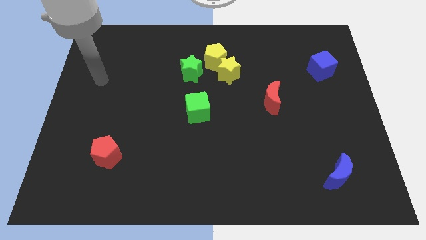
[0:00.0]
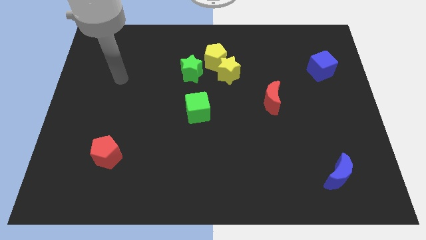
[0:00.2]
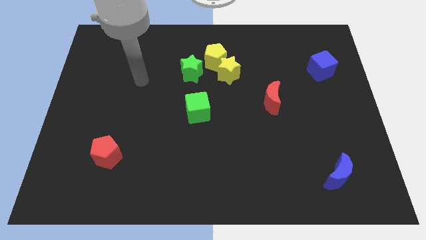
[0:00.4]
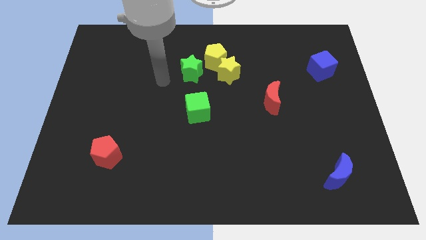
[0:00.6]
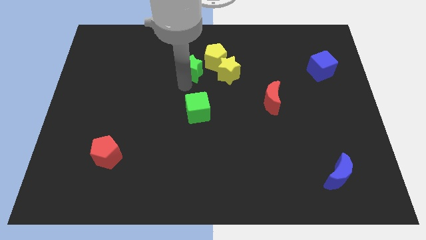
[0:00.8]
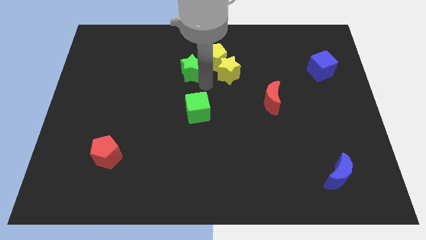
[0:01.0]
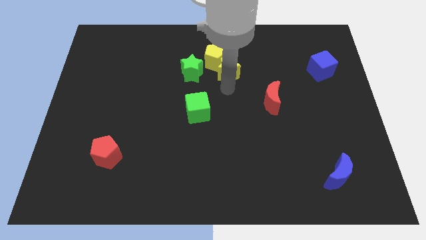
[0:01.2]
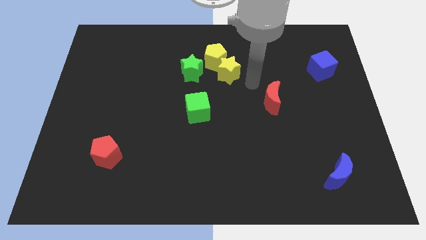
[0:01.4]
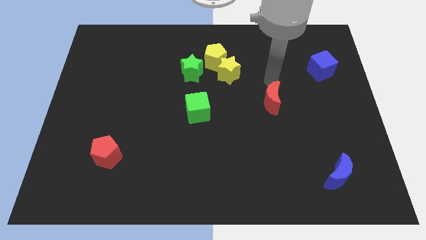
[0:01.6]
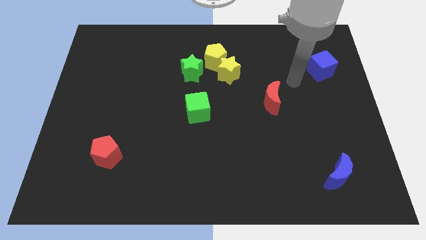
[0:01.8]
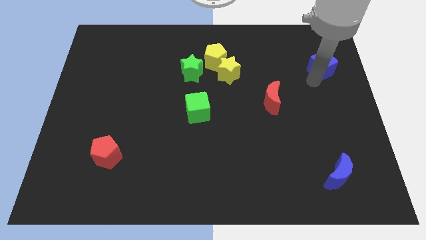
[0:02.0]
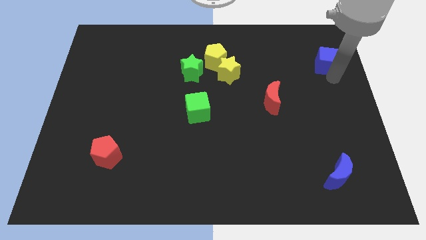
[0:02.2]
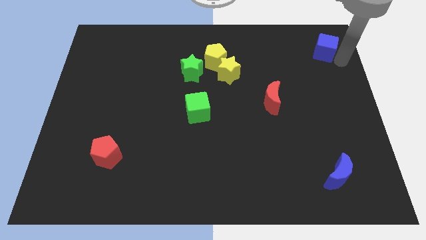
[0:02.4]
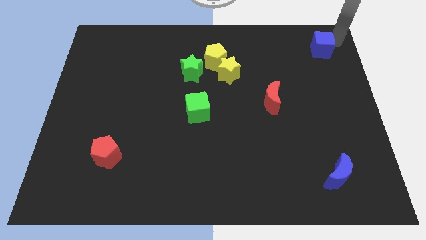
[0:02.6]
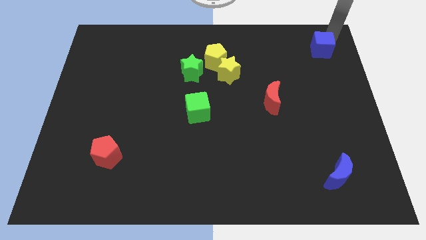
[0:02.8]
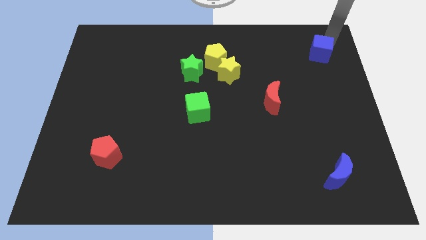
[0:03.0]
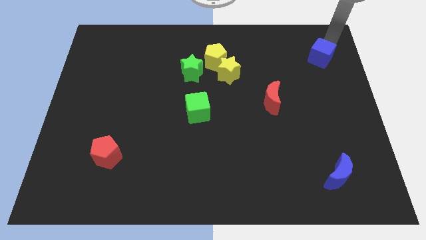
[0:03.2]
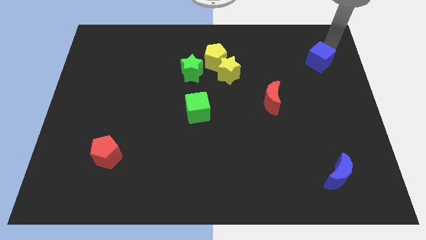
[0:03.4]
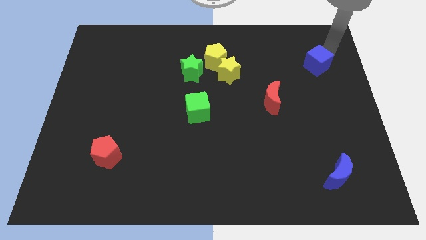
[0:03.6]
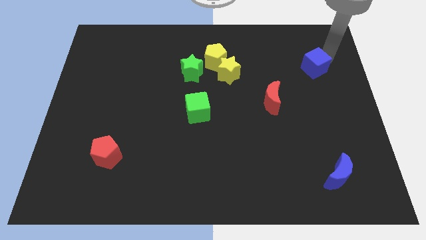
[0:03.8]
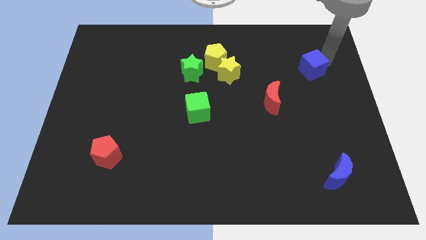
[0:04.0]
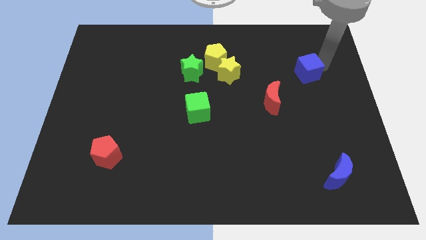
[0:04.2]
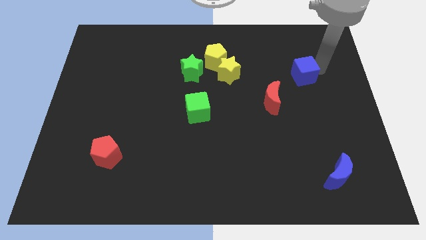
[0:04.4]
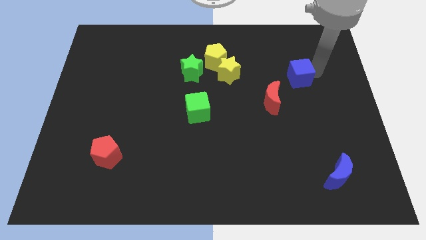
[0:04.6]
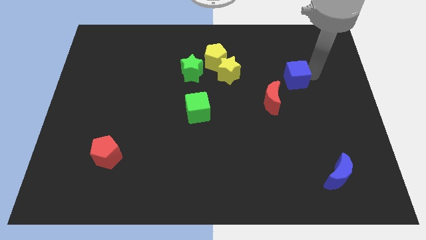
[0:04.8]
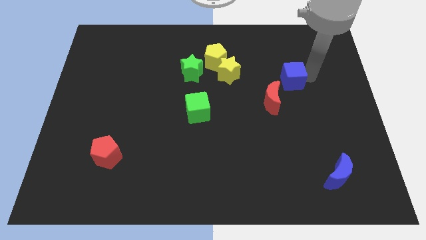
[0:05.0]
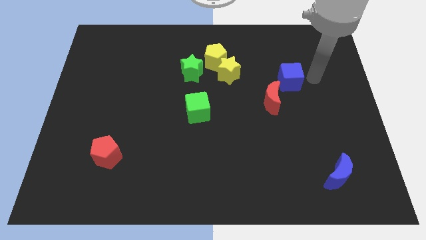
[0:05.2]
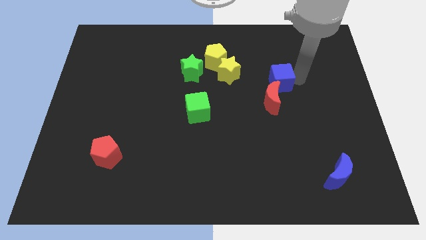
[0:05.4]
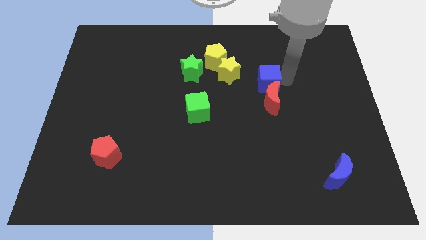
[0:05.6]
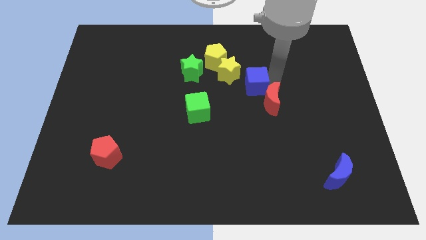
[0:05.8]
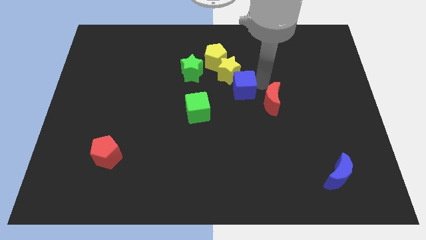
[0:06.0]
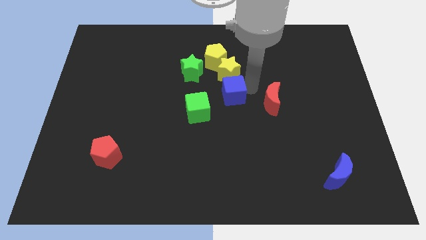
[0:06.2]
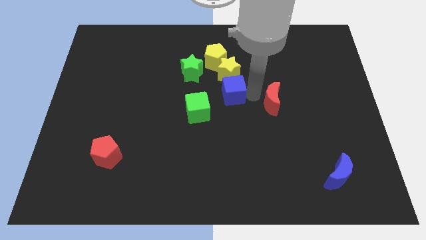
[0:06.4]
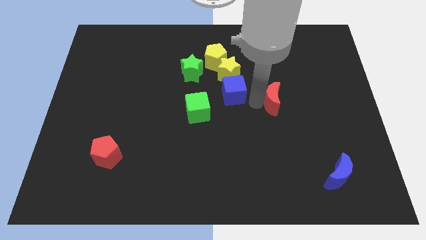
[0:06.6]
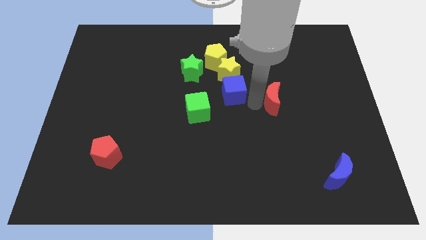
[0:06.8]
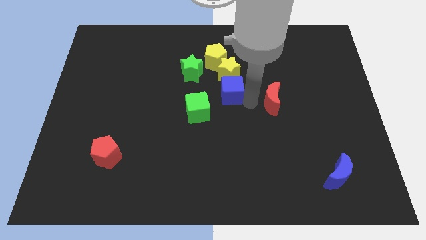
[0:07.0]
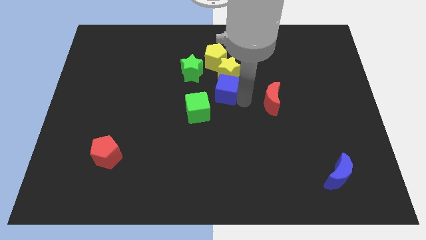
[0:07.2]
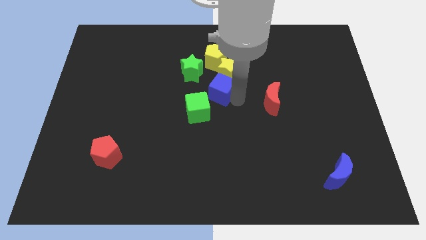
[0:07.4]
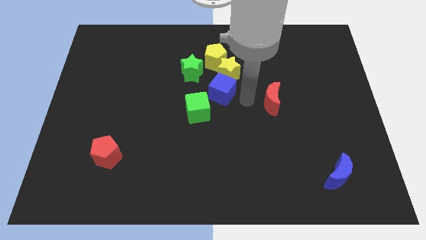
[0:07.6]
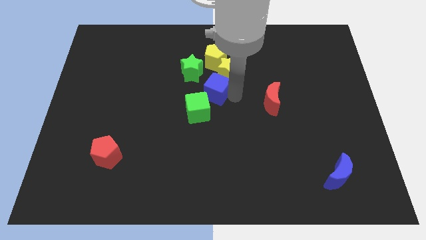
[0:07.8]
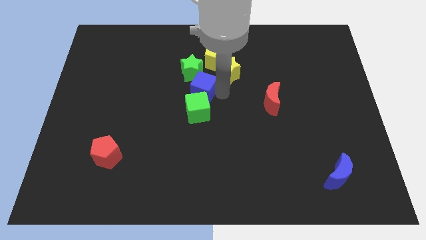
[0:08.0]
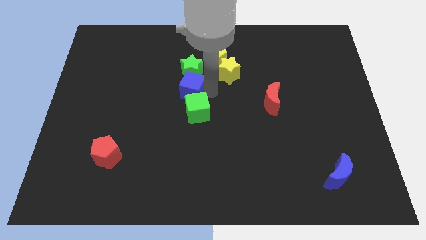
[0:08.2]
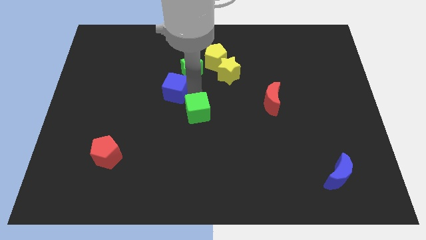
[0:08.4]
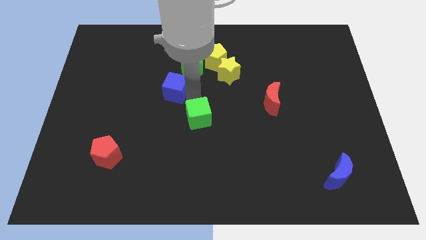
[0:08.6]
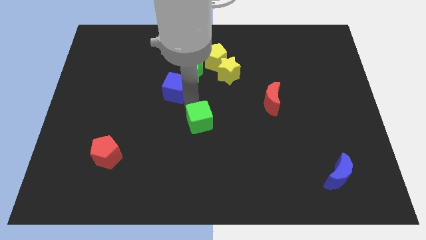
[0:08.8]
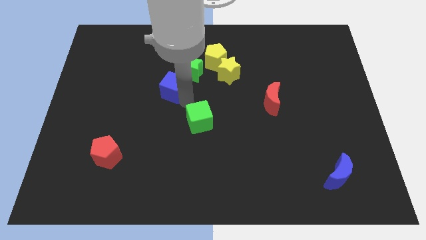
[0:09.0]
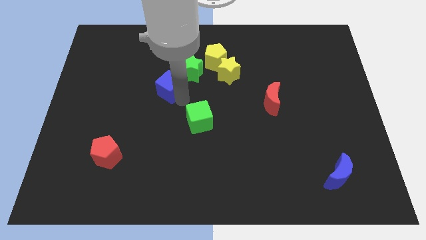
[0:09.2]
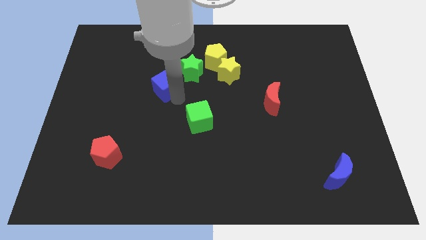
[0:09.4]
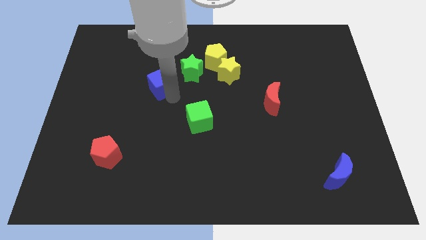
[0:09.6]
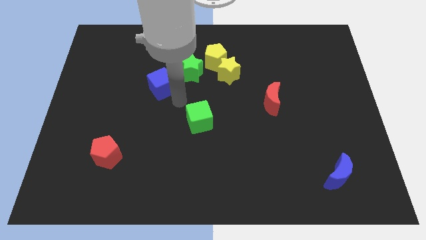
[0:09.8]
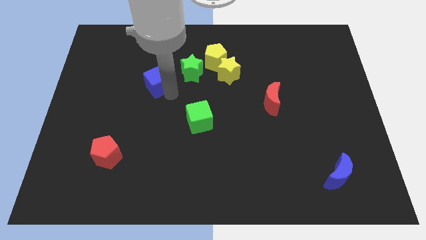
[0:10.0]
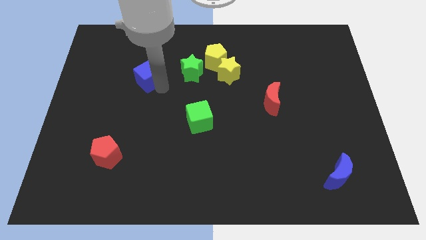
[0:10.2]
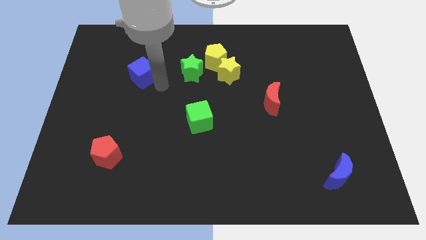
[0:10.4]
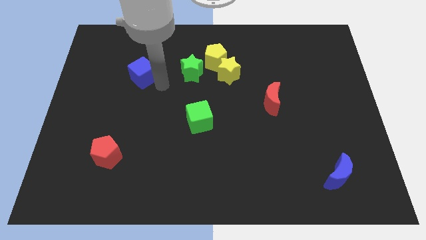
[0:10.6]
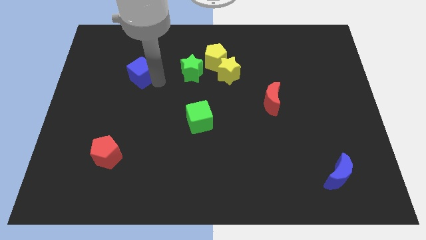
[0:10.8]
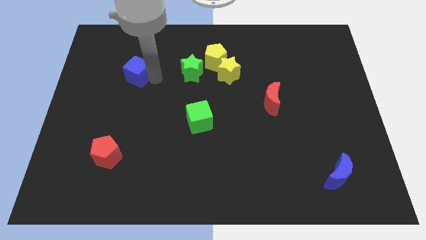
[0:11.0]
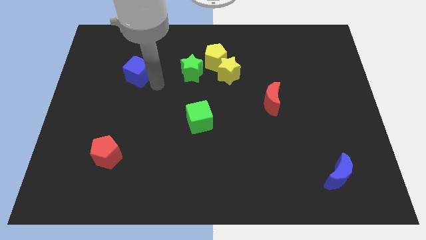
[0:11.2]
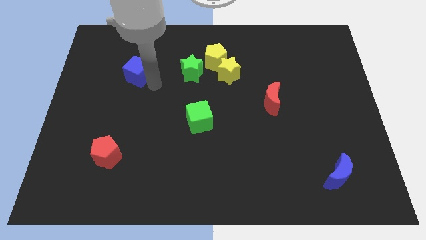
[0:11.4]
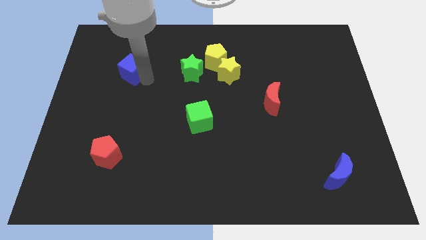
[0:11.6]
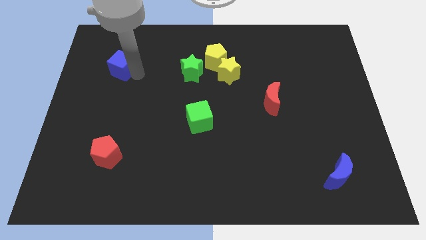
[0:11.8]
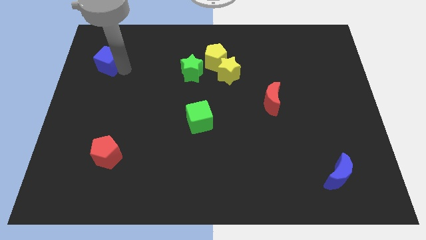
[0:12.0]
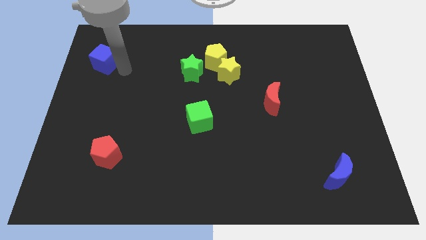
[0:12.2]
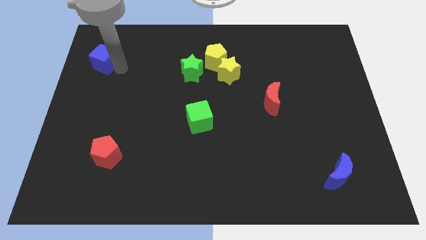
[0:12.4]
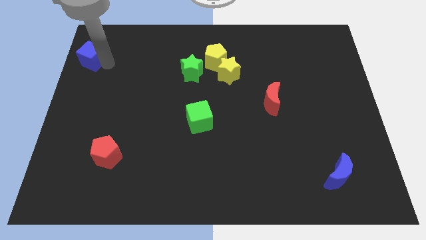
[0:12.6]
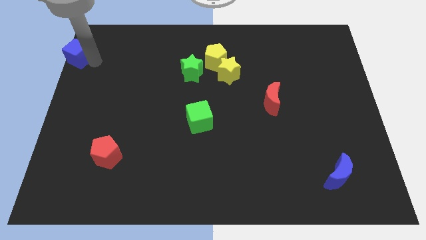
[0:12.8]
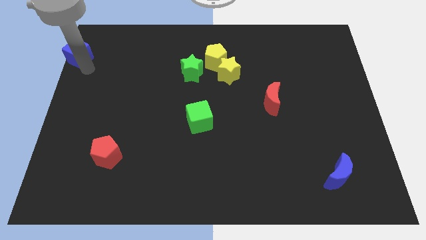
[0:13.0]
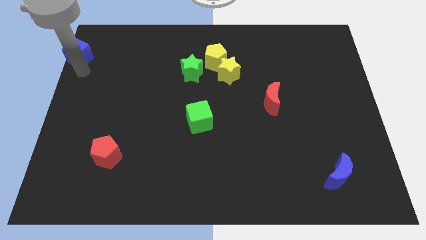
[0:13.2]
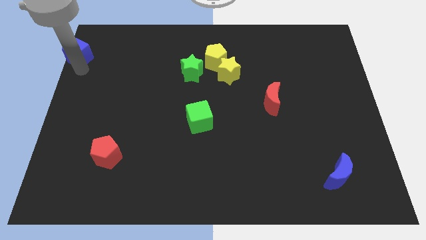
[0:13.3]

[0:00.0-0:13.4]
slide the blue cube to the top left corner
